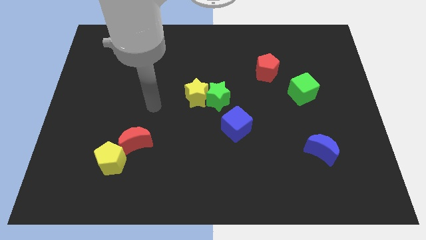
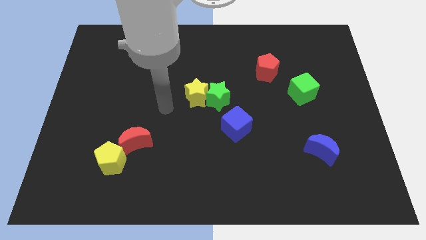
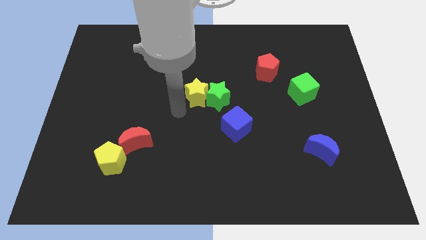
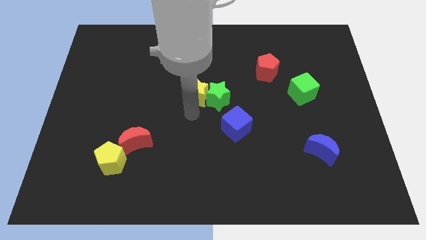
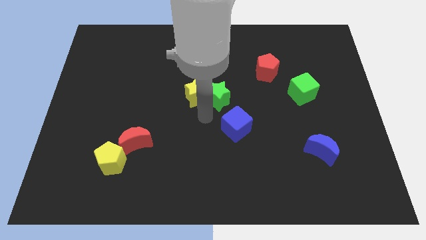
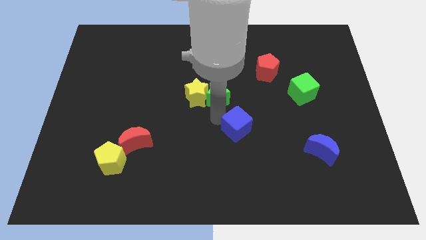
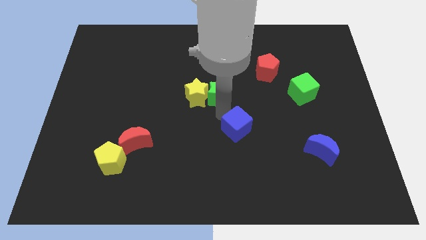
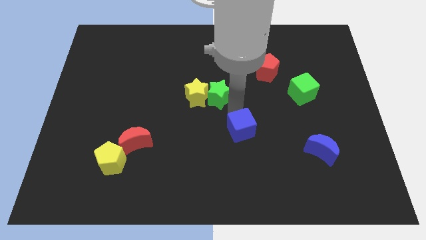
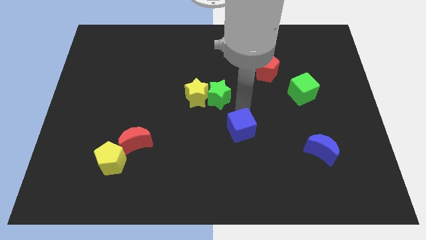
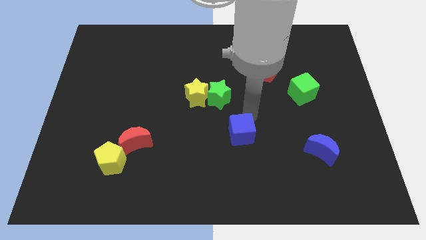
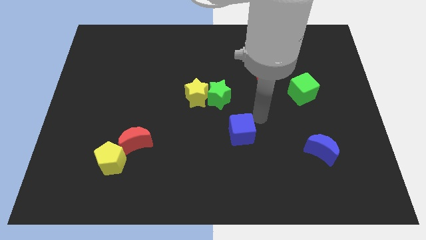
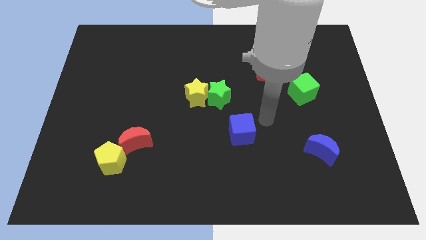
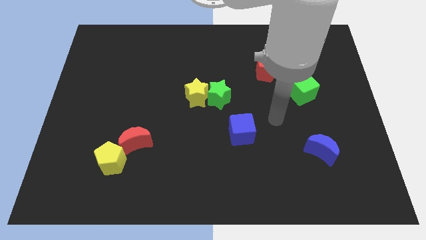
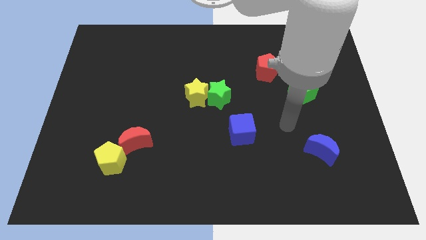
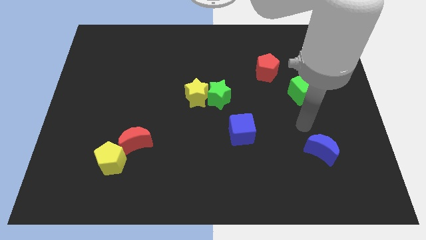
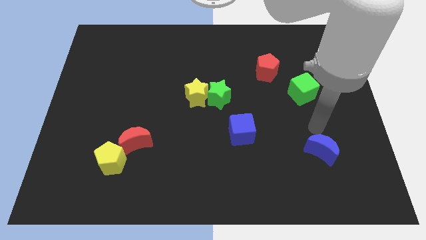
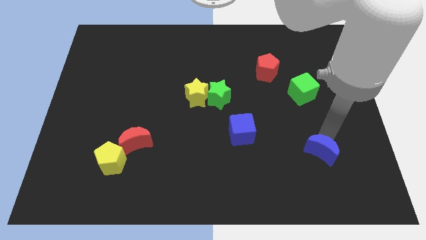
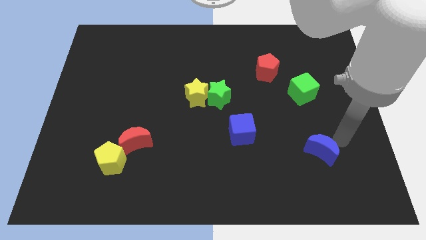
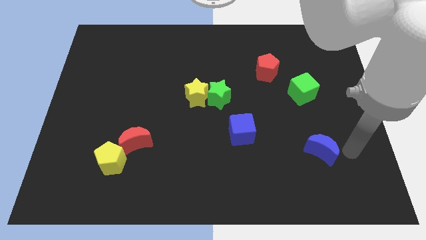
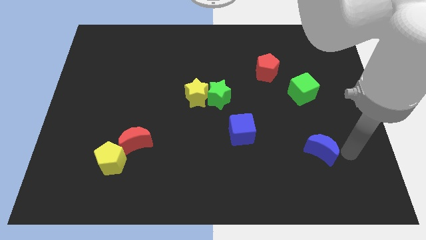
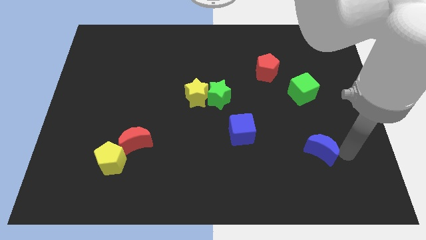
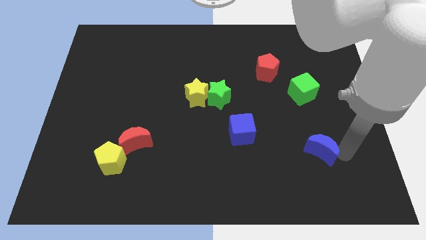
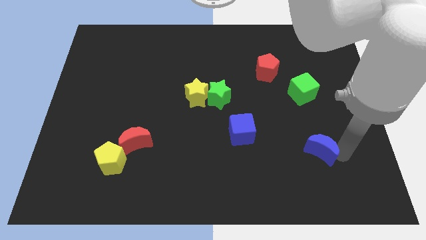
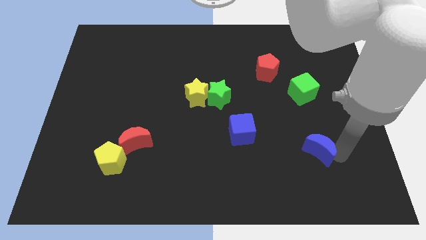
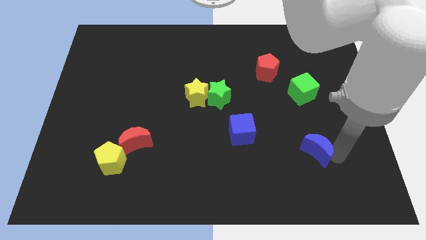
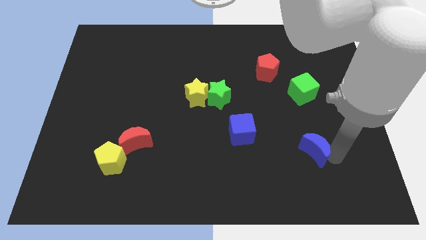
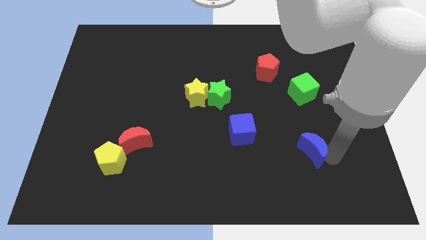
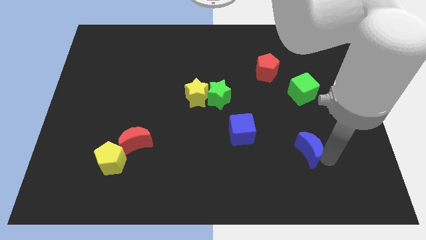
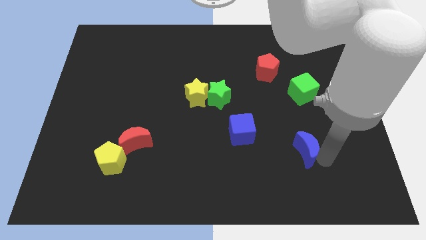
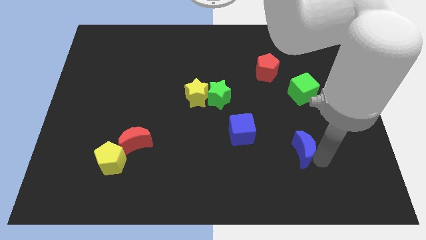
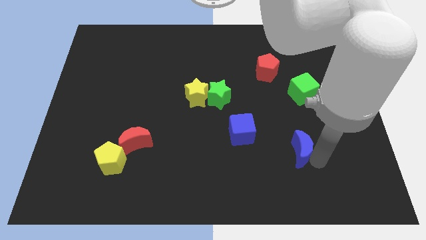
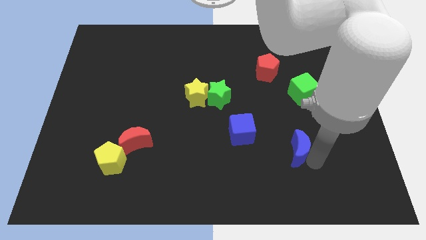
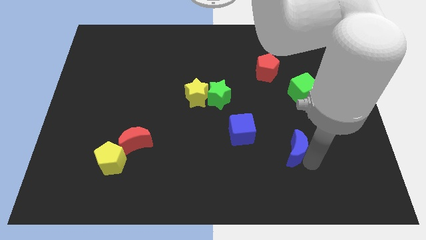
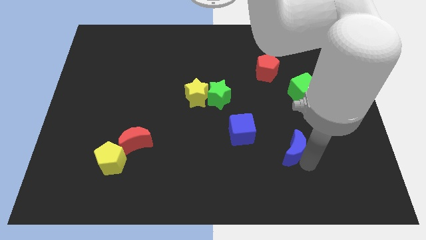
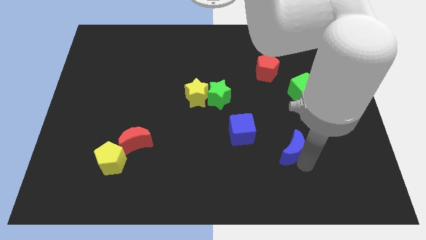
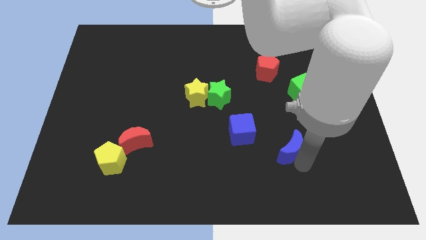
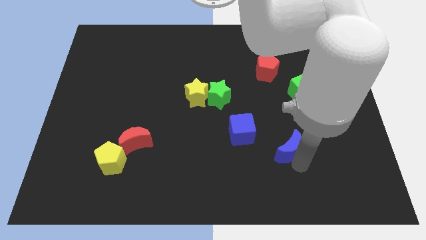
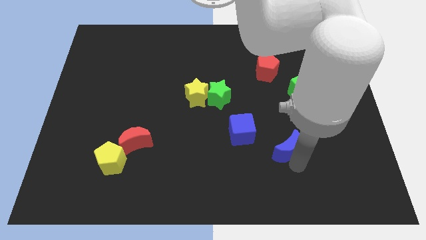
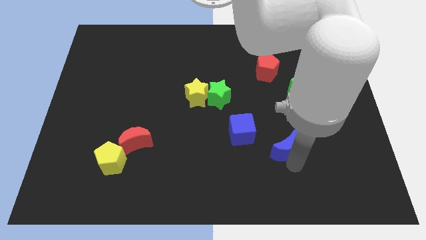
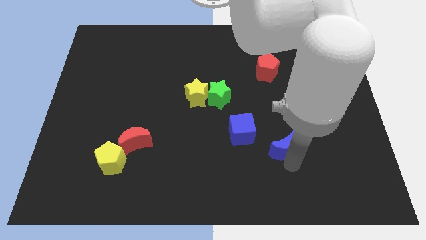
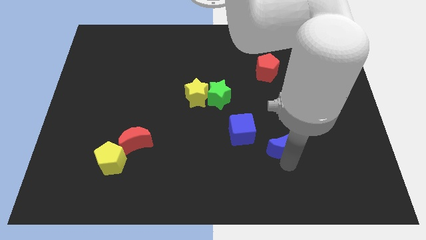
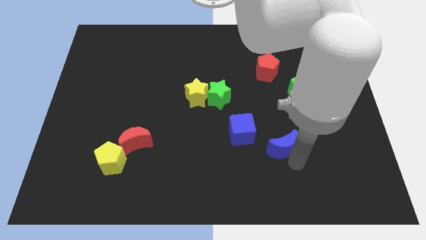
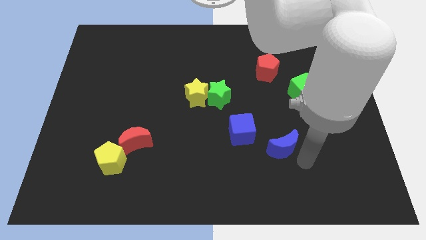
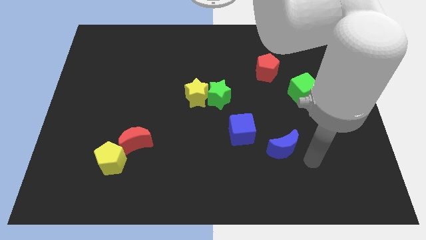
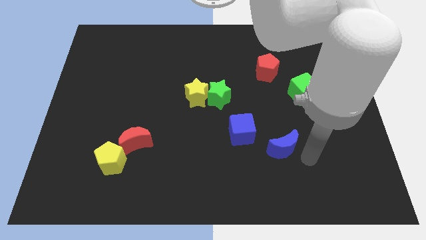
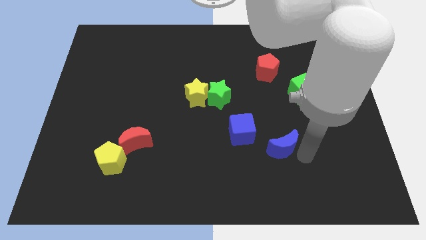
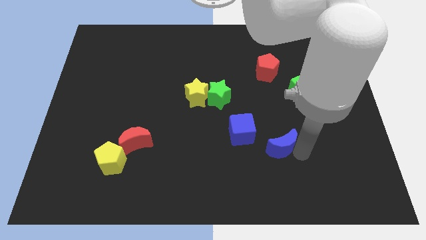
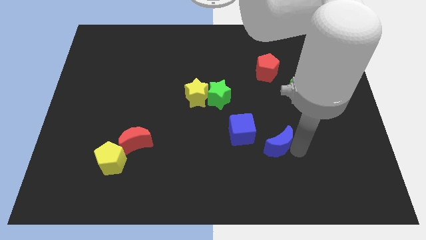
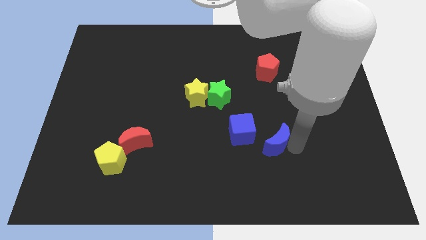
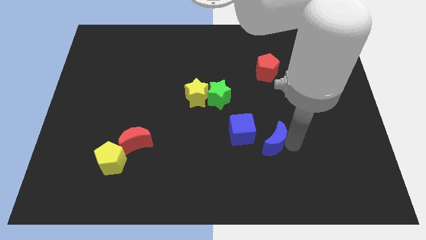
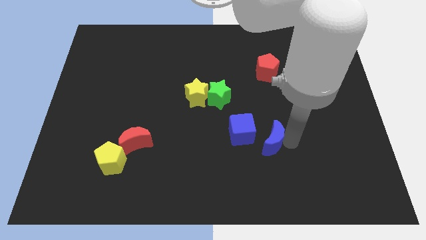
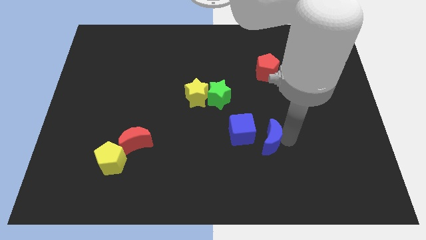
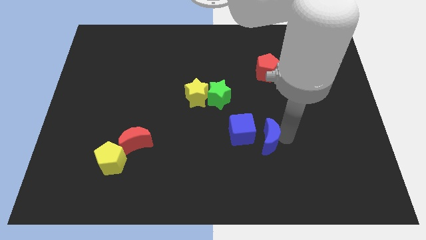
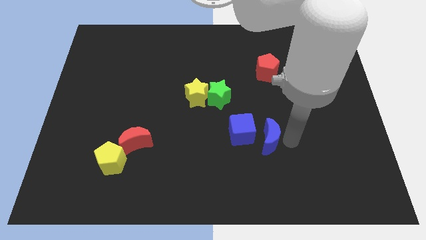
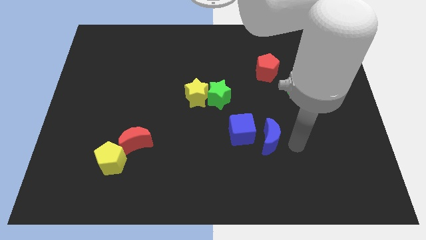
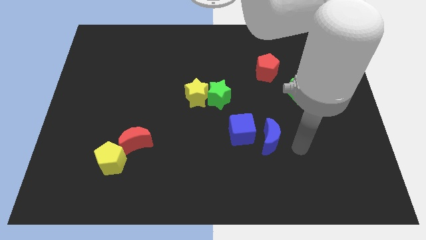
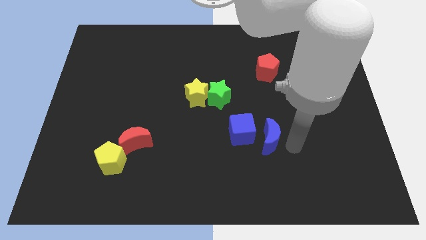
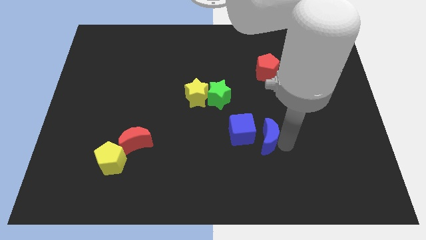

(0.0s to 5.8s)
push the blue moon to the blue cube

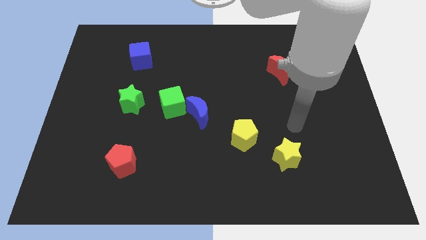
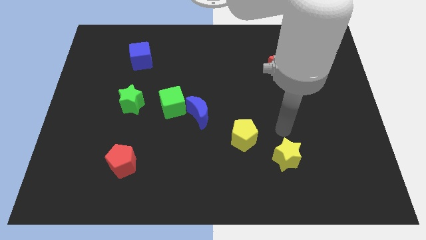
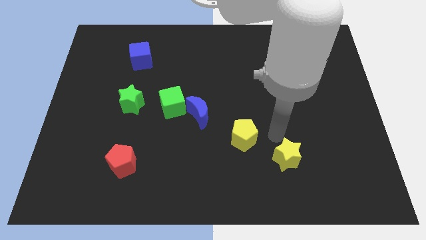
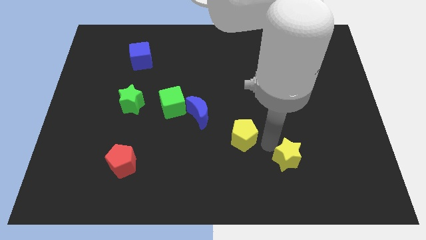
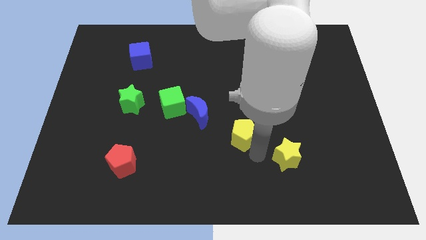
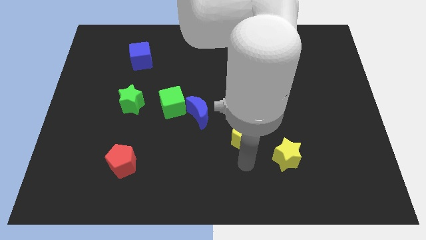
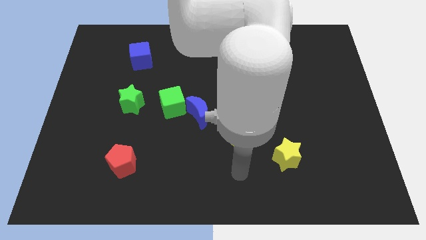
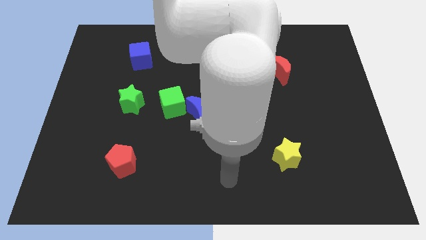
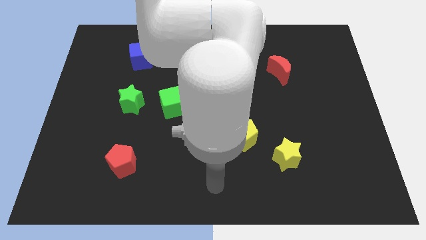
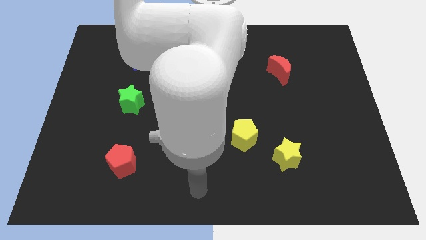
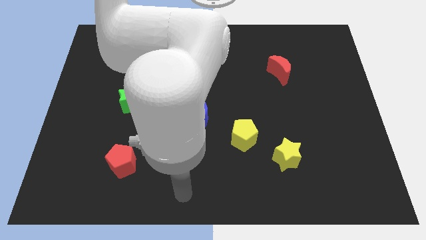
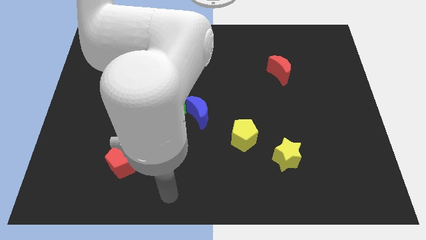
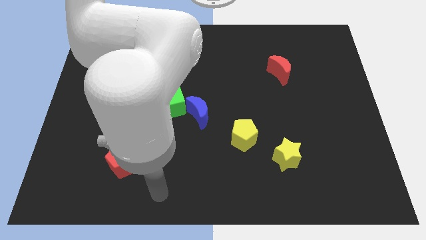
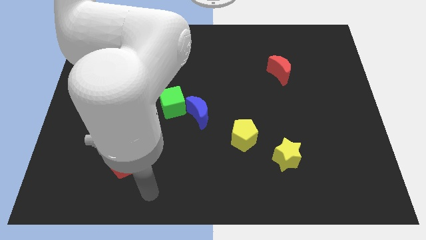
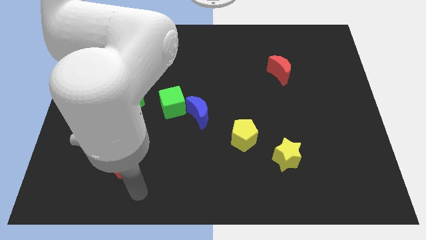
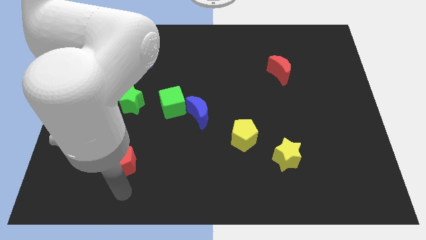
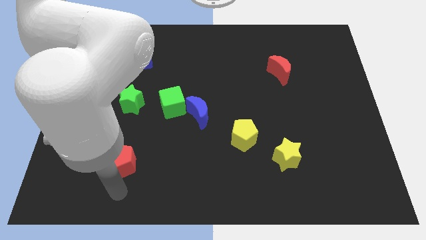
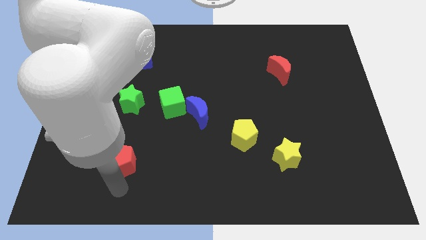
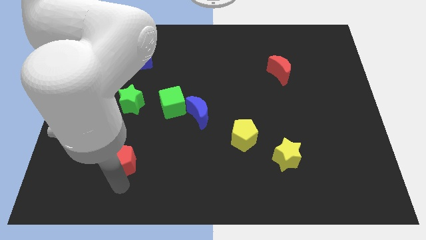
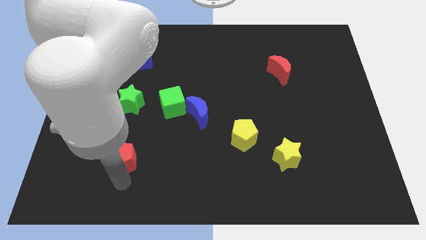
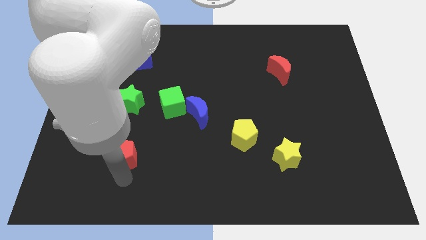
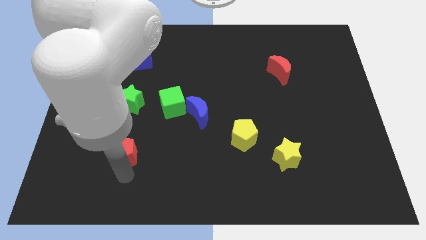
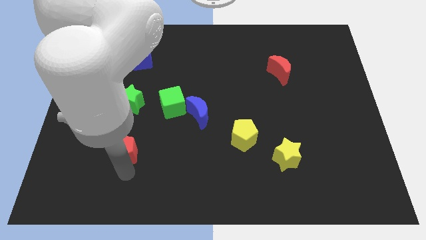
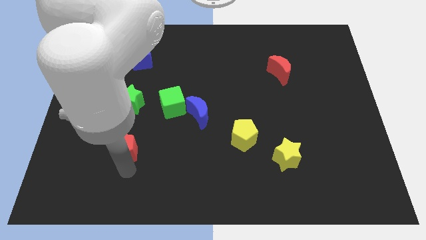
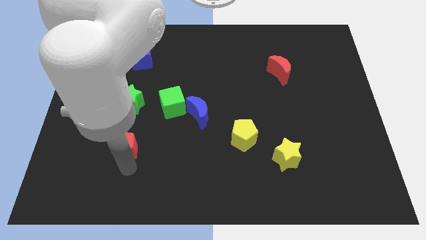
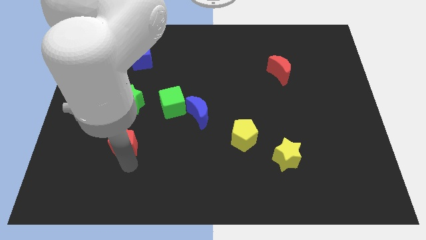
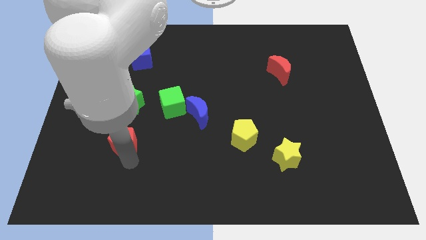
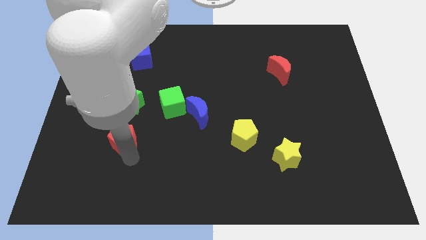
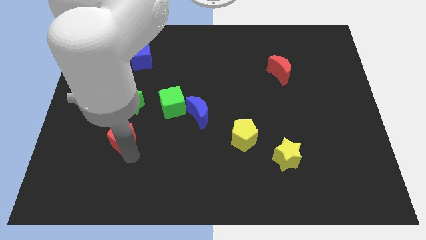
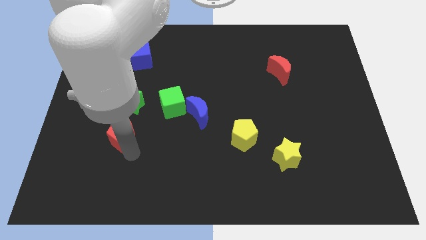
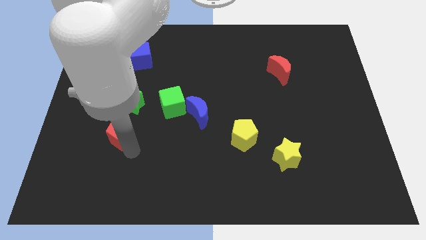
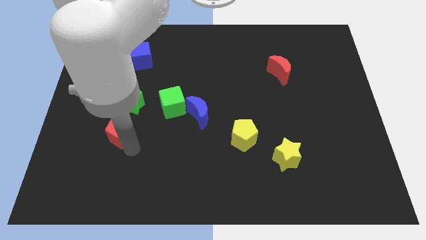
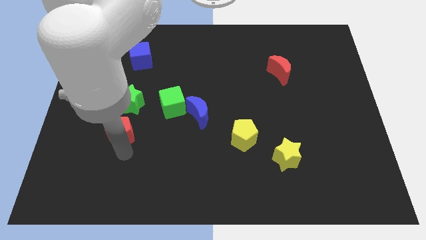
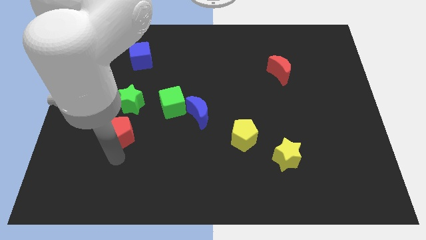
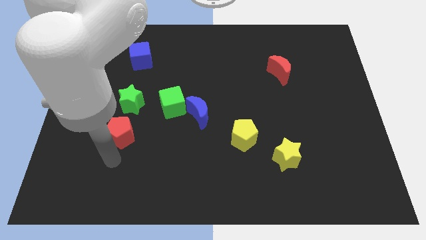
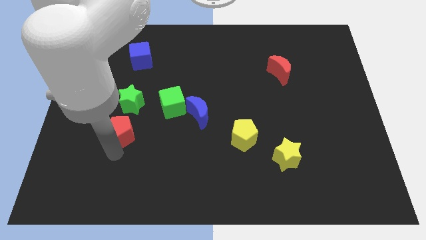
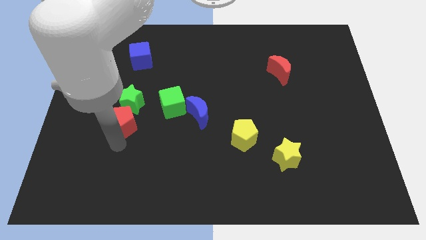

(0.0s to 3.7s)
put the red pentagon close to the green star
